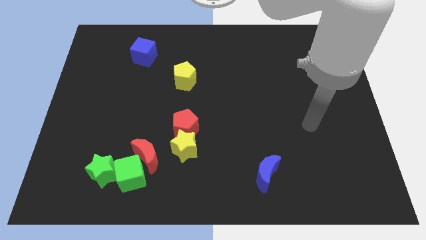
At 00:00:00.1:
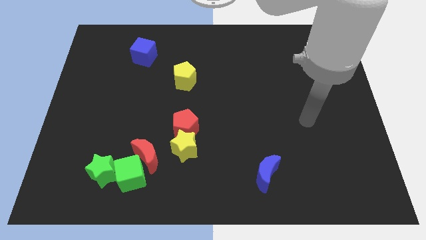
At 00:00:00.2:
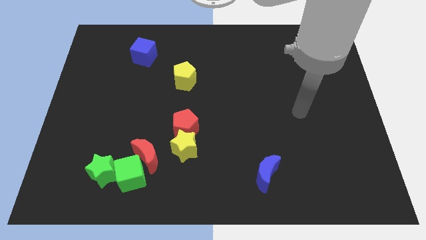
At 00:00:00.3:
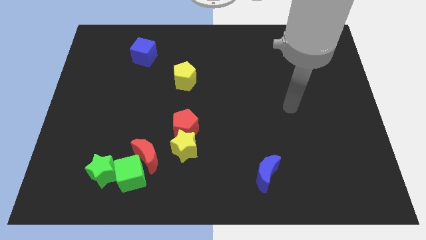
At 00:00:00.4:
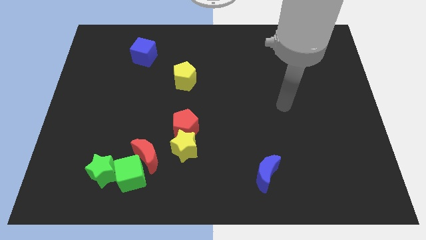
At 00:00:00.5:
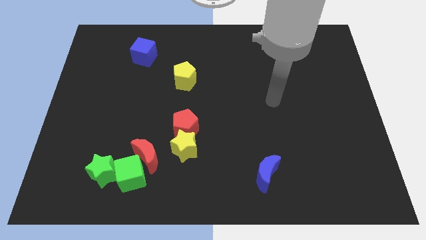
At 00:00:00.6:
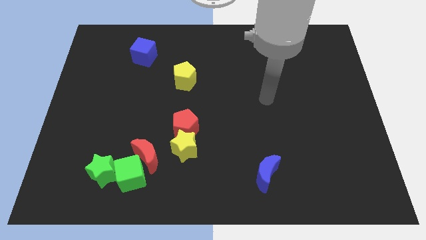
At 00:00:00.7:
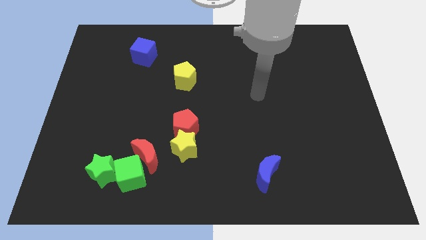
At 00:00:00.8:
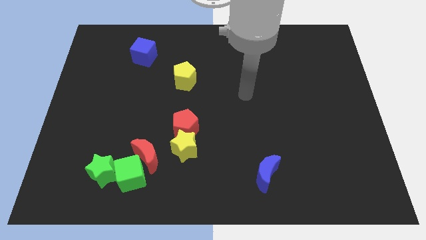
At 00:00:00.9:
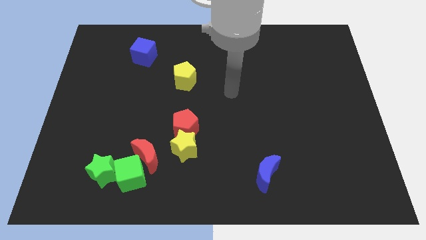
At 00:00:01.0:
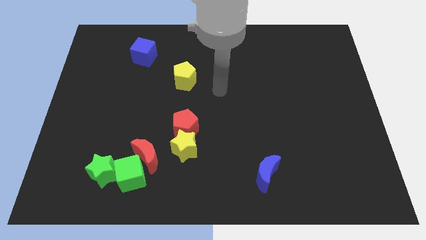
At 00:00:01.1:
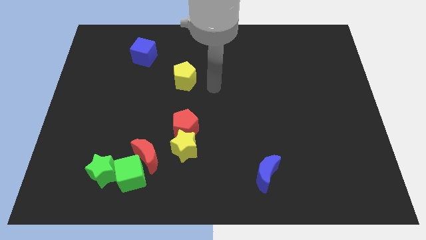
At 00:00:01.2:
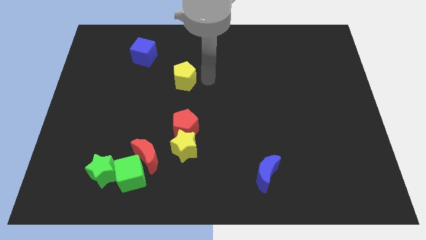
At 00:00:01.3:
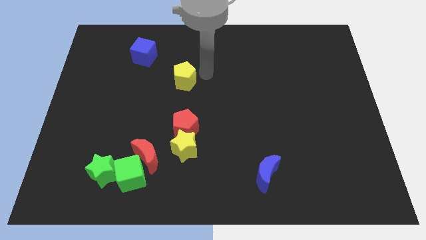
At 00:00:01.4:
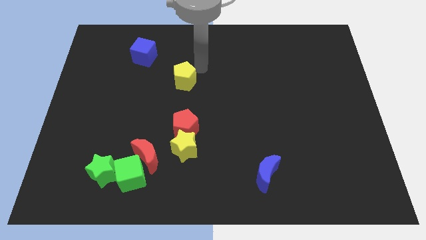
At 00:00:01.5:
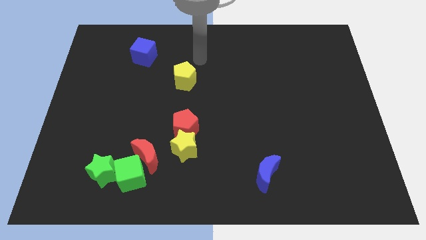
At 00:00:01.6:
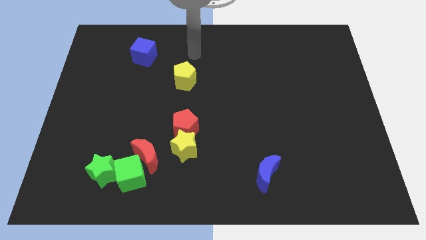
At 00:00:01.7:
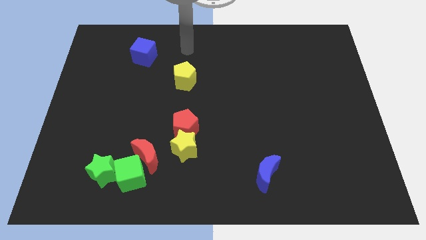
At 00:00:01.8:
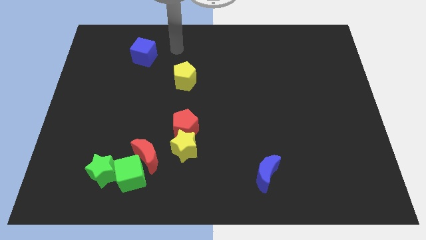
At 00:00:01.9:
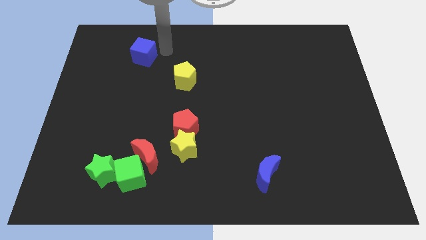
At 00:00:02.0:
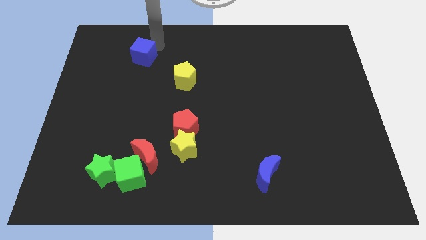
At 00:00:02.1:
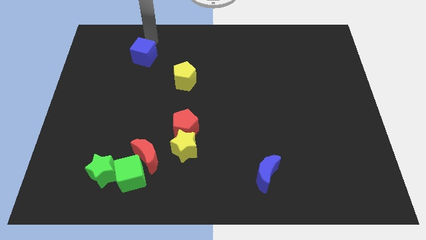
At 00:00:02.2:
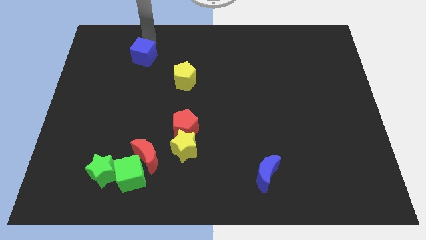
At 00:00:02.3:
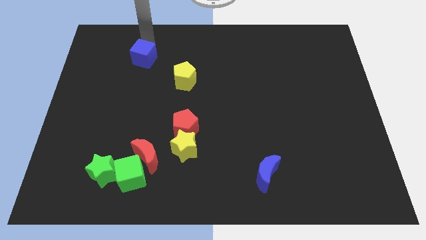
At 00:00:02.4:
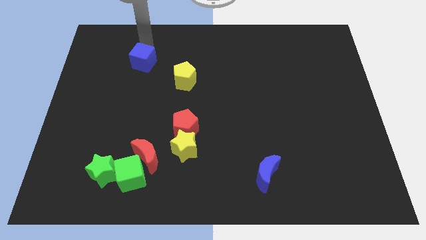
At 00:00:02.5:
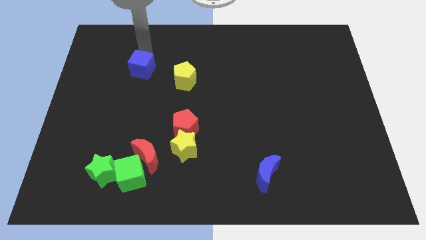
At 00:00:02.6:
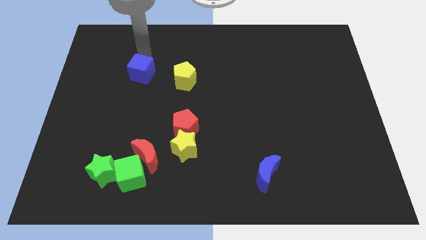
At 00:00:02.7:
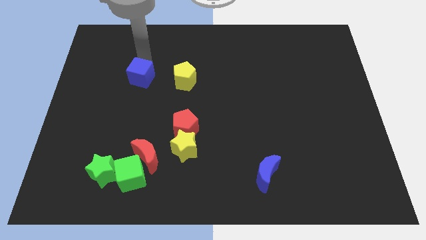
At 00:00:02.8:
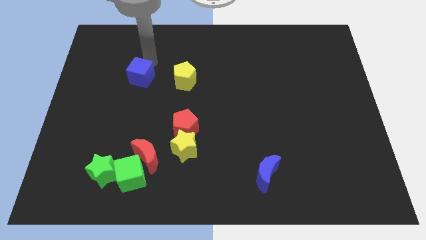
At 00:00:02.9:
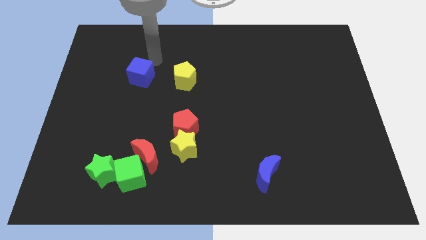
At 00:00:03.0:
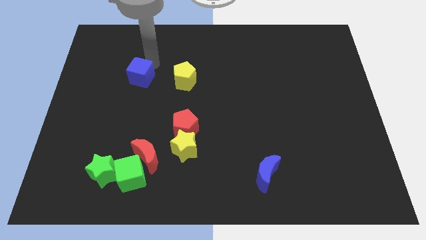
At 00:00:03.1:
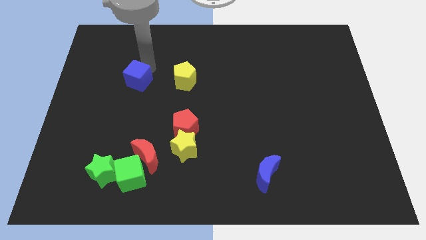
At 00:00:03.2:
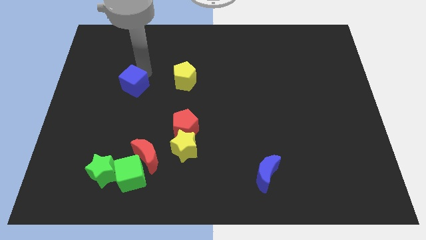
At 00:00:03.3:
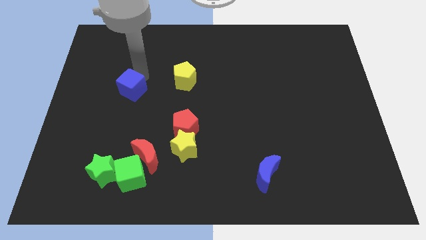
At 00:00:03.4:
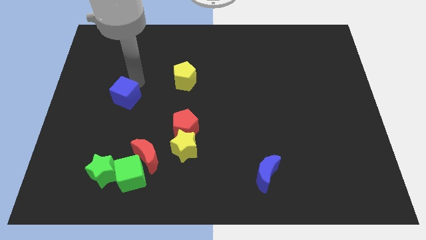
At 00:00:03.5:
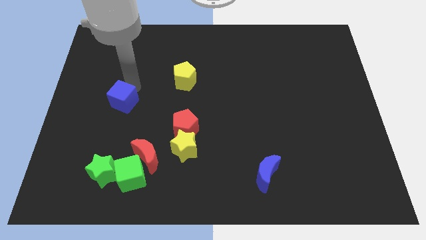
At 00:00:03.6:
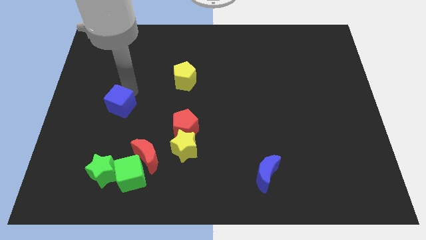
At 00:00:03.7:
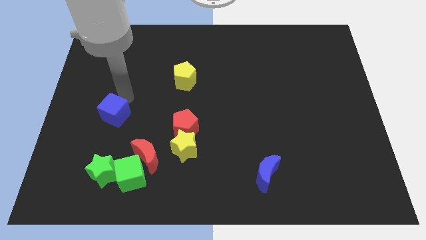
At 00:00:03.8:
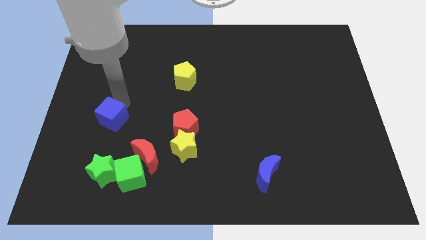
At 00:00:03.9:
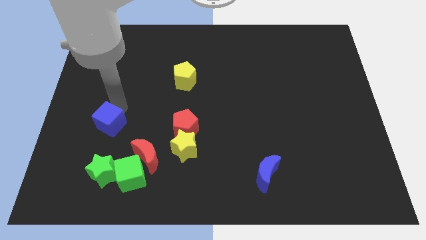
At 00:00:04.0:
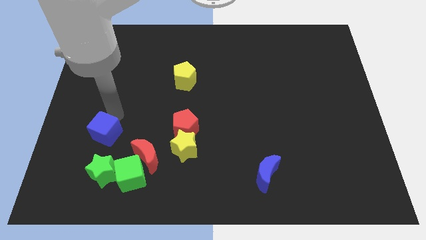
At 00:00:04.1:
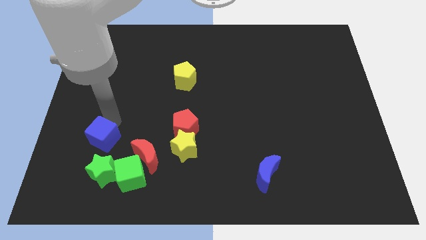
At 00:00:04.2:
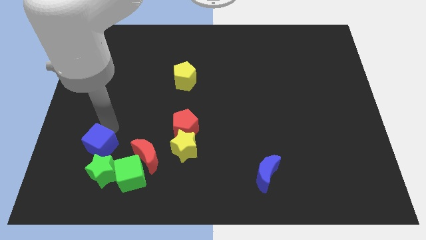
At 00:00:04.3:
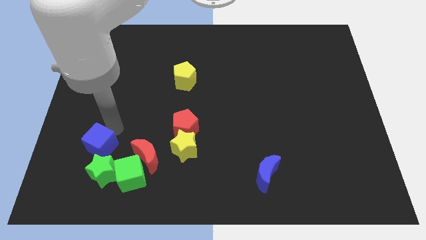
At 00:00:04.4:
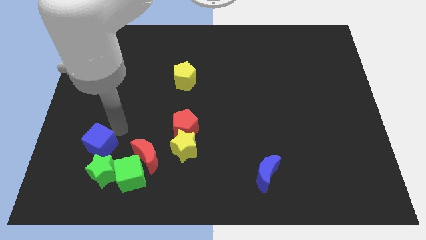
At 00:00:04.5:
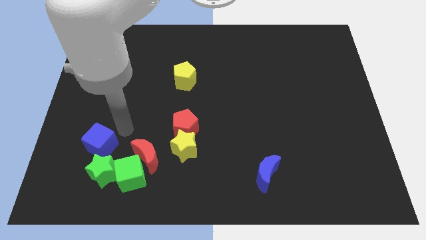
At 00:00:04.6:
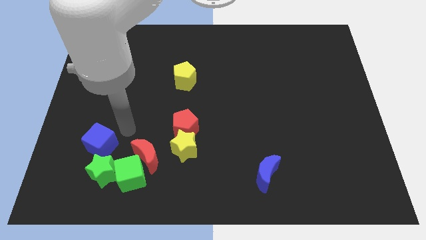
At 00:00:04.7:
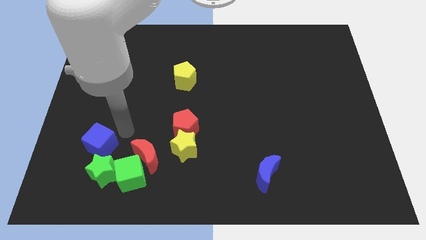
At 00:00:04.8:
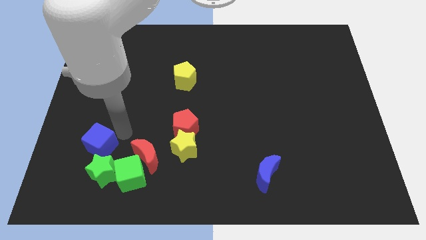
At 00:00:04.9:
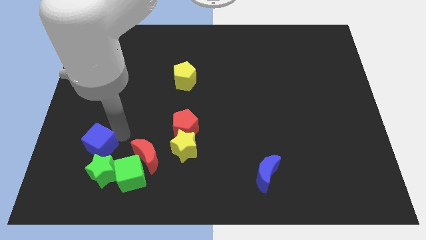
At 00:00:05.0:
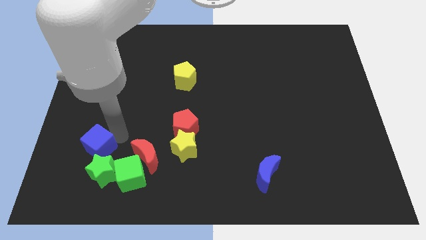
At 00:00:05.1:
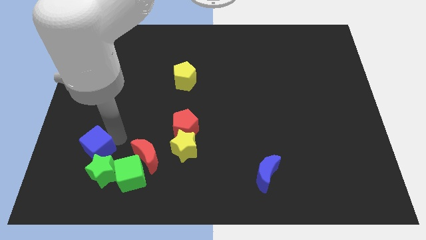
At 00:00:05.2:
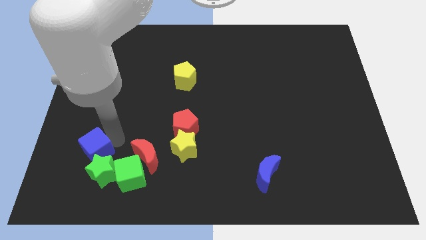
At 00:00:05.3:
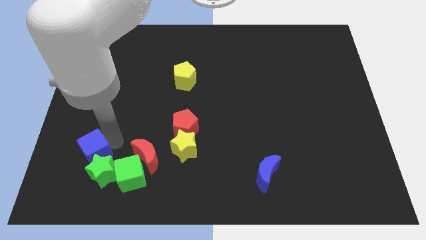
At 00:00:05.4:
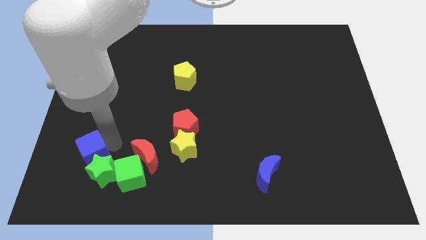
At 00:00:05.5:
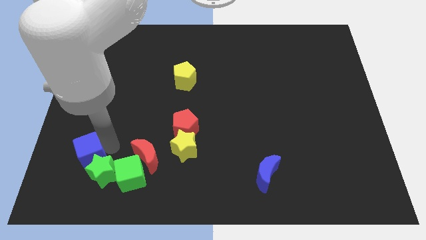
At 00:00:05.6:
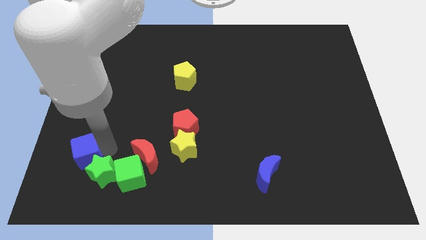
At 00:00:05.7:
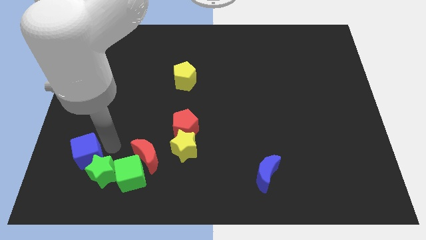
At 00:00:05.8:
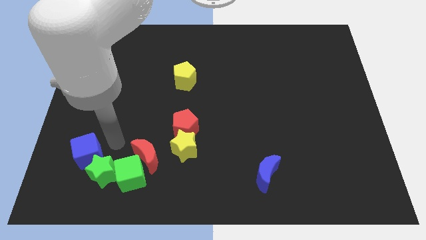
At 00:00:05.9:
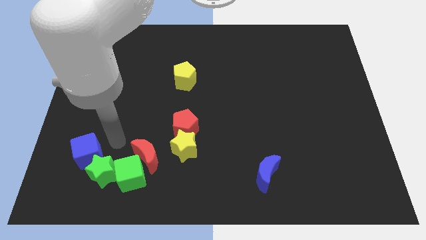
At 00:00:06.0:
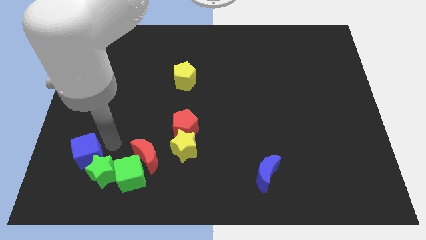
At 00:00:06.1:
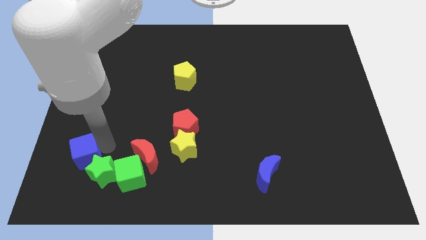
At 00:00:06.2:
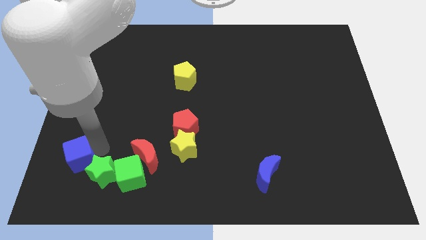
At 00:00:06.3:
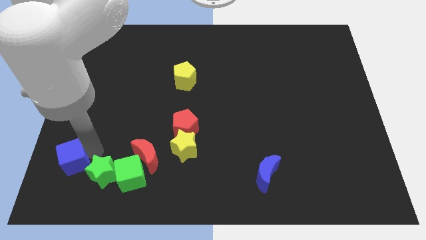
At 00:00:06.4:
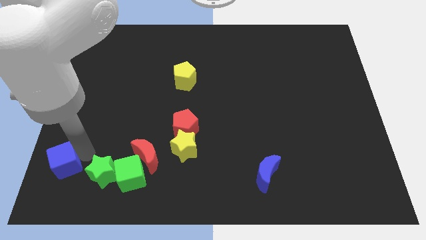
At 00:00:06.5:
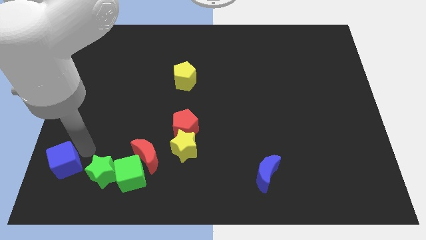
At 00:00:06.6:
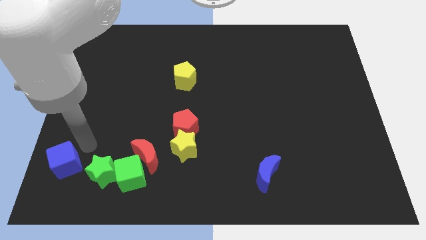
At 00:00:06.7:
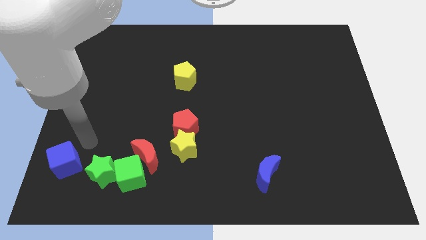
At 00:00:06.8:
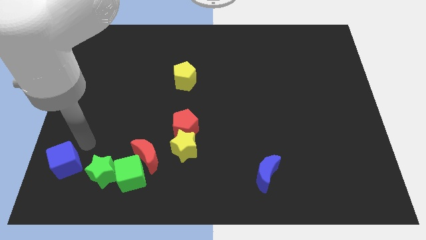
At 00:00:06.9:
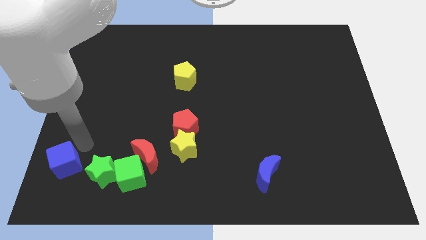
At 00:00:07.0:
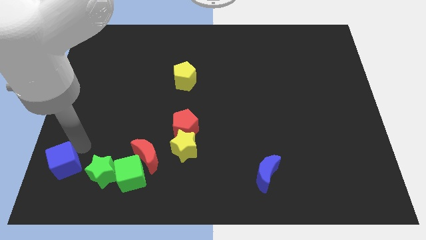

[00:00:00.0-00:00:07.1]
move the blue cube to the bottom left corner
